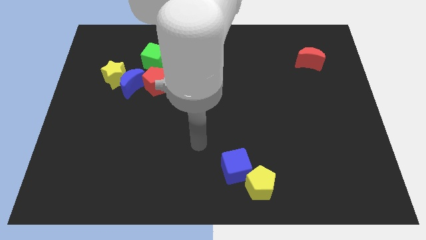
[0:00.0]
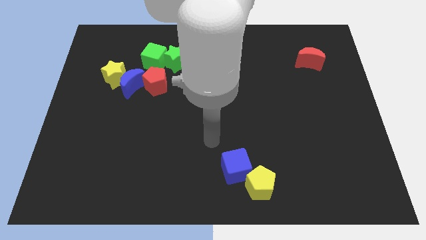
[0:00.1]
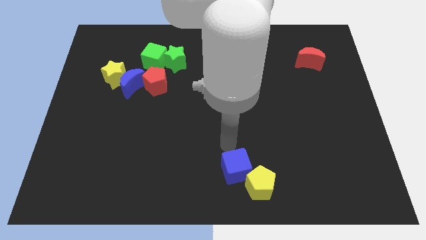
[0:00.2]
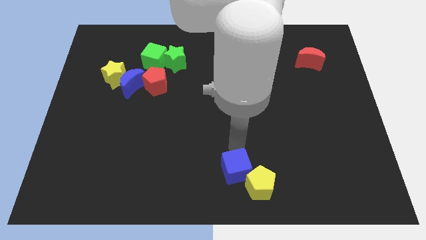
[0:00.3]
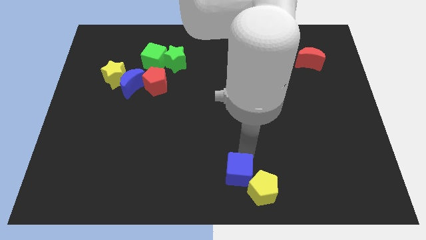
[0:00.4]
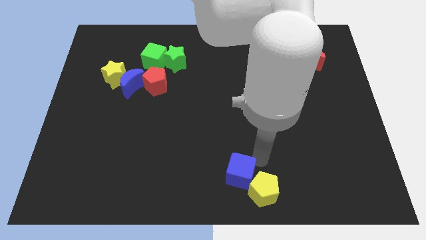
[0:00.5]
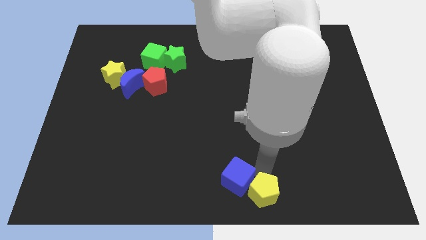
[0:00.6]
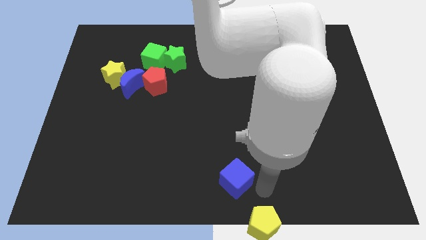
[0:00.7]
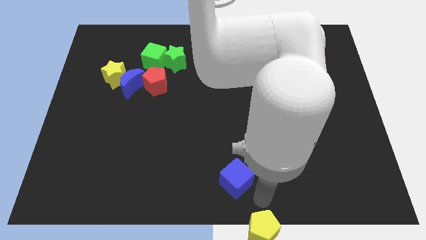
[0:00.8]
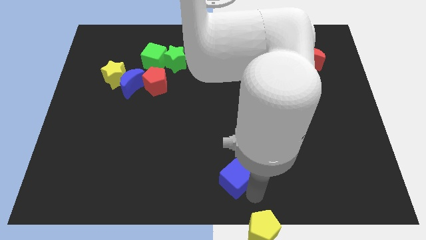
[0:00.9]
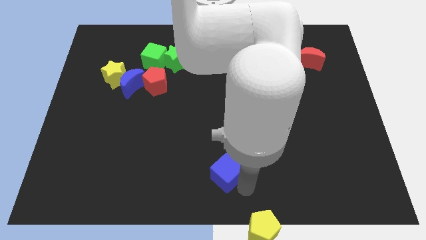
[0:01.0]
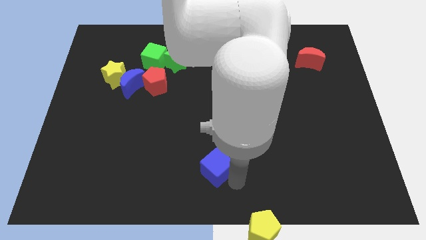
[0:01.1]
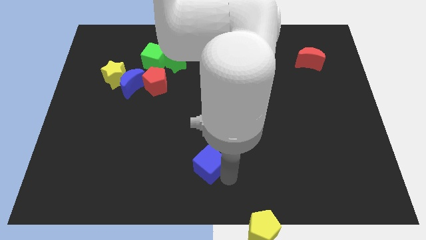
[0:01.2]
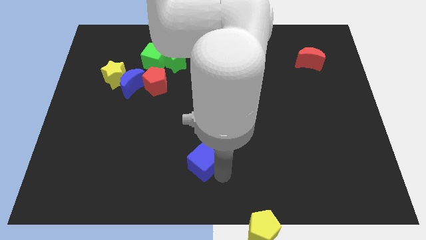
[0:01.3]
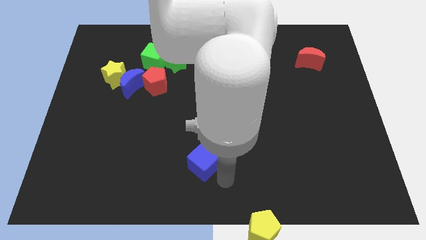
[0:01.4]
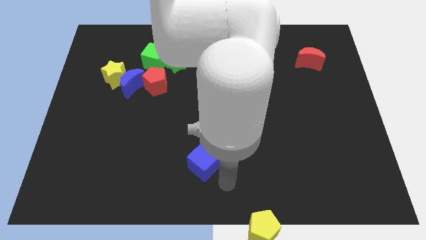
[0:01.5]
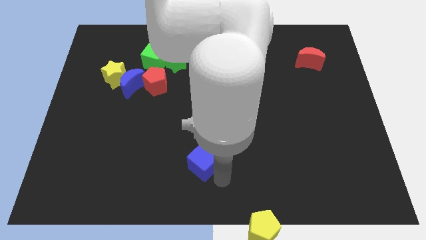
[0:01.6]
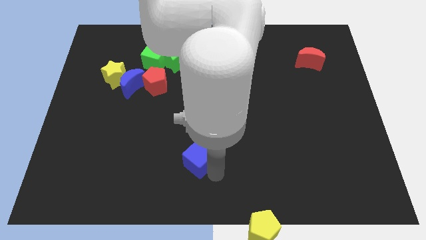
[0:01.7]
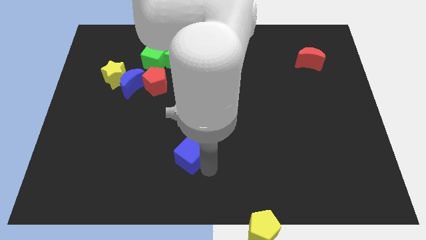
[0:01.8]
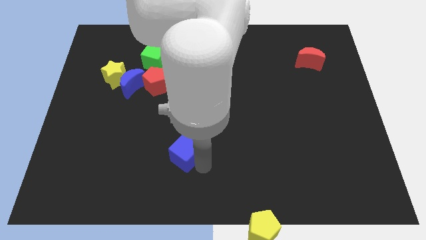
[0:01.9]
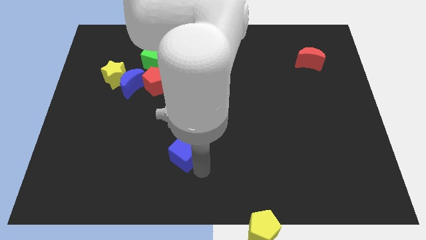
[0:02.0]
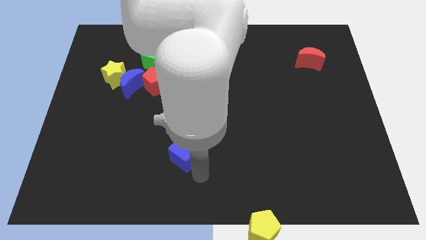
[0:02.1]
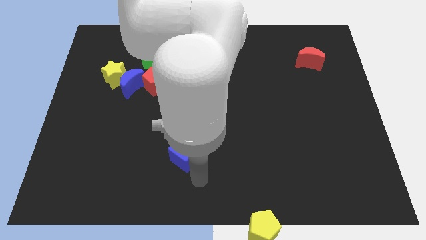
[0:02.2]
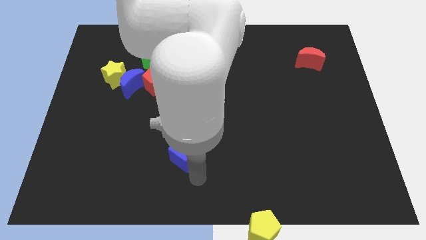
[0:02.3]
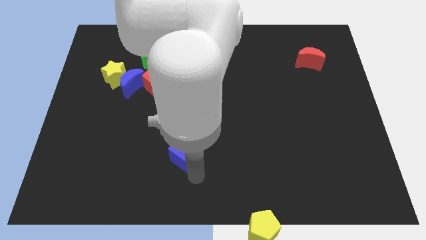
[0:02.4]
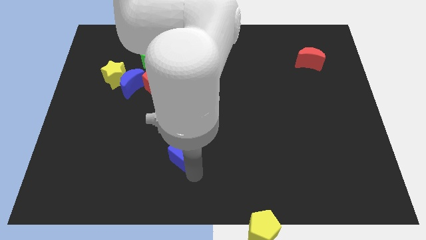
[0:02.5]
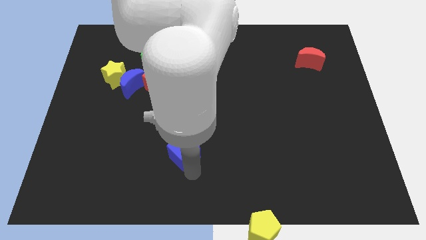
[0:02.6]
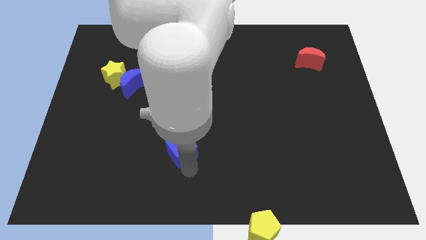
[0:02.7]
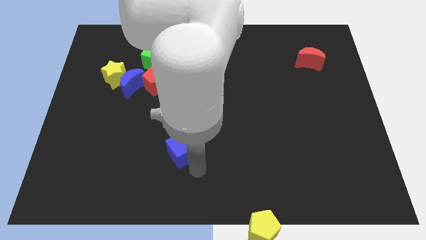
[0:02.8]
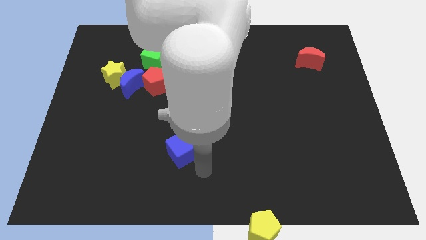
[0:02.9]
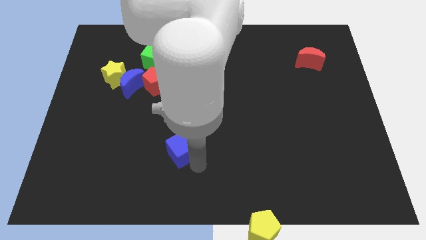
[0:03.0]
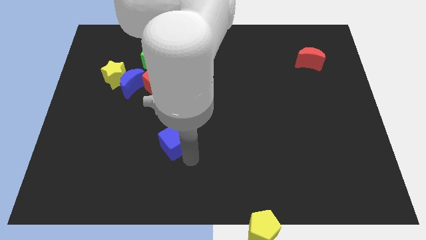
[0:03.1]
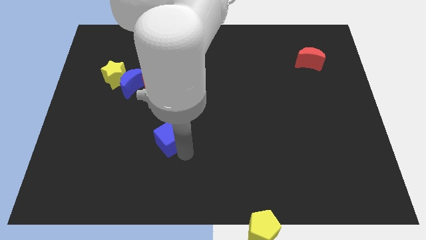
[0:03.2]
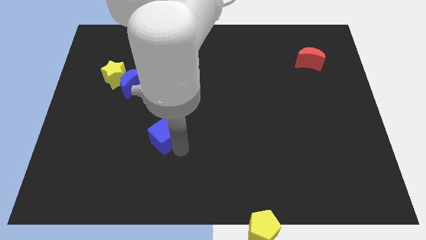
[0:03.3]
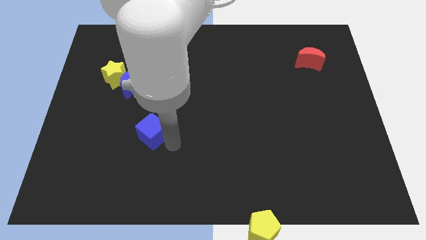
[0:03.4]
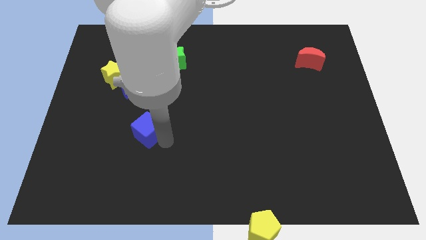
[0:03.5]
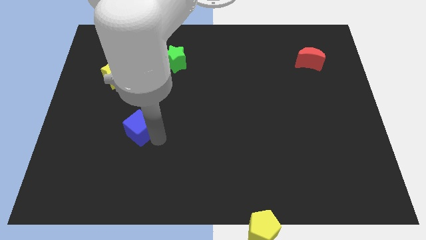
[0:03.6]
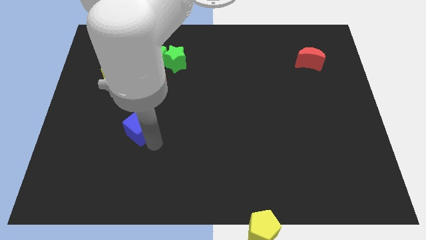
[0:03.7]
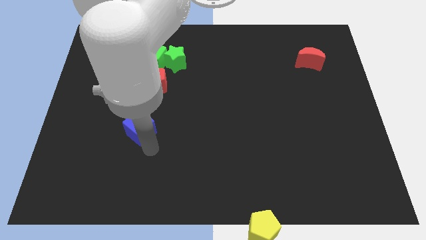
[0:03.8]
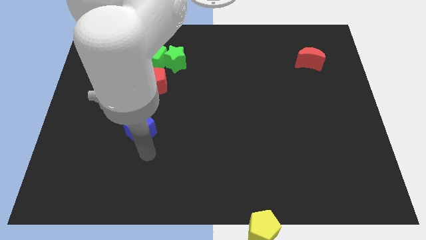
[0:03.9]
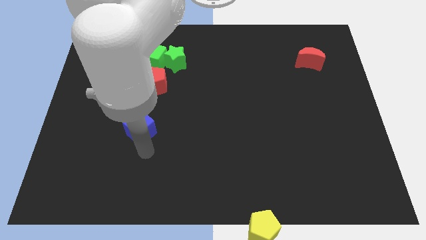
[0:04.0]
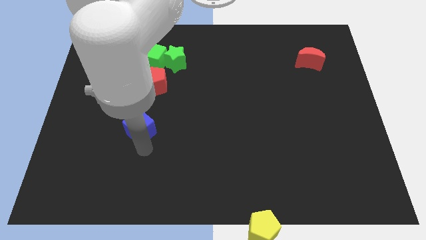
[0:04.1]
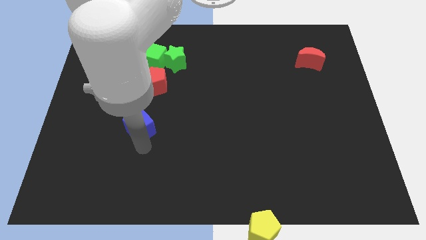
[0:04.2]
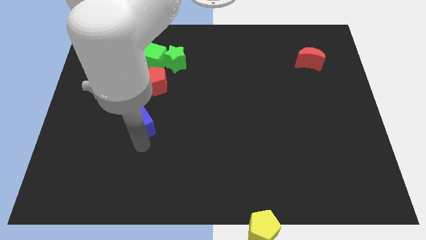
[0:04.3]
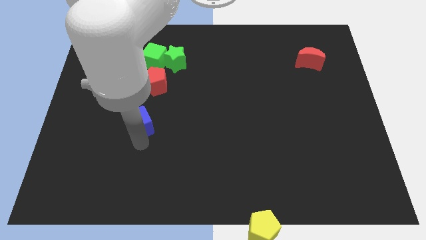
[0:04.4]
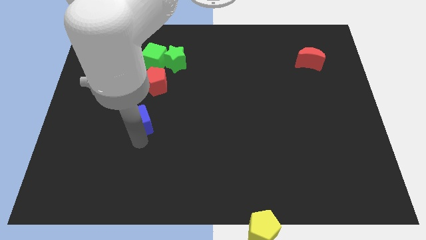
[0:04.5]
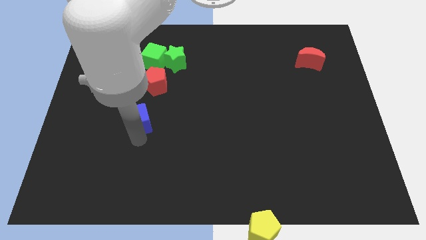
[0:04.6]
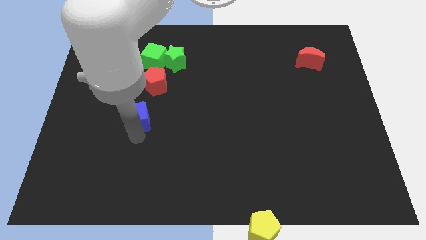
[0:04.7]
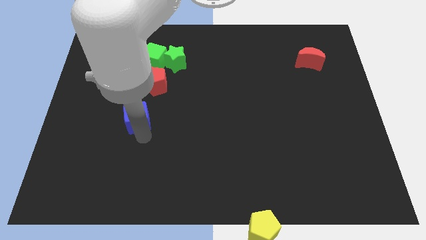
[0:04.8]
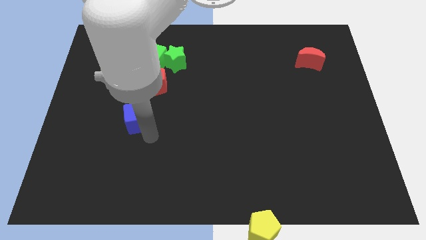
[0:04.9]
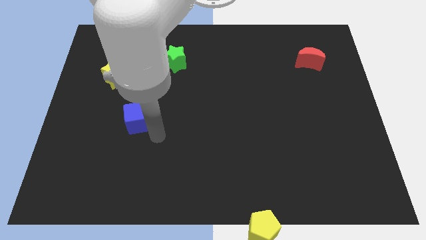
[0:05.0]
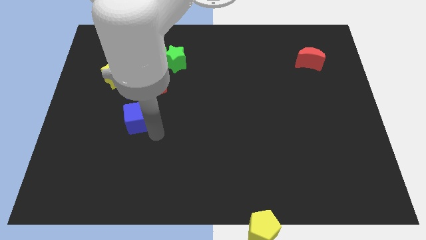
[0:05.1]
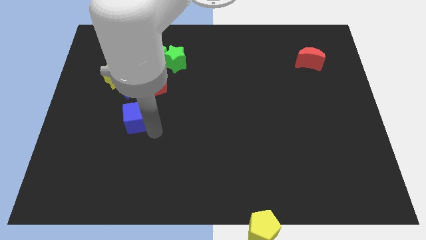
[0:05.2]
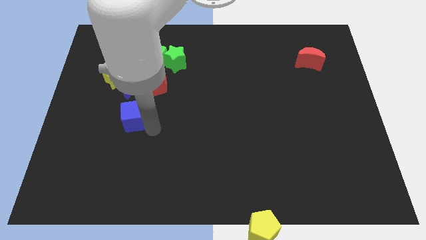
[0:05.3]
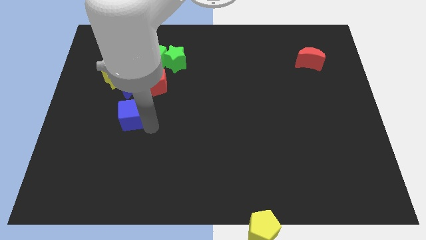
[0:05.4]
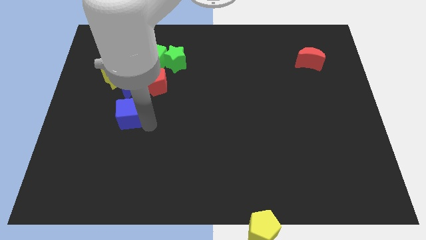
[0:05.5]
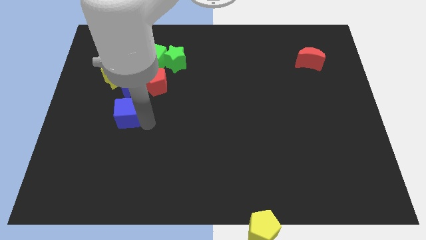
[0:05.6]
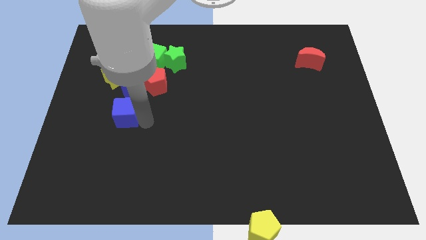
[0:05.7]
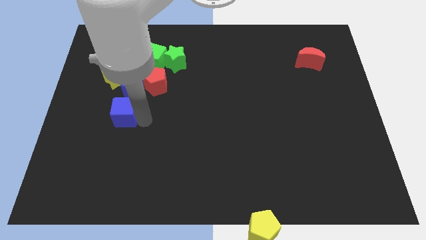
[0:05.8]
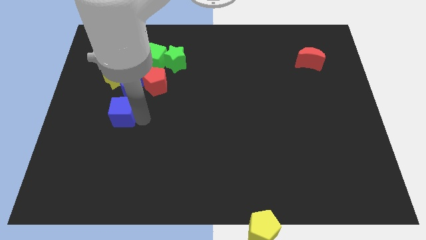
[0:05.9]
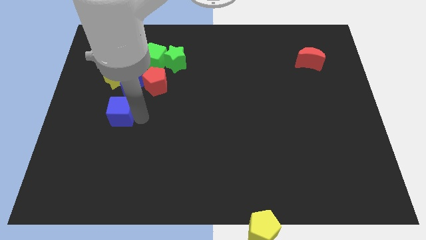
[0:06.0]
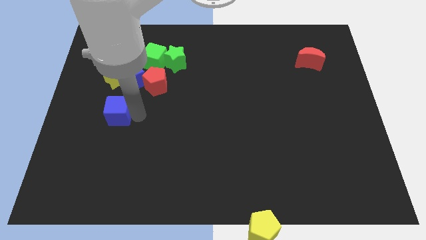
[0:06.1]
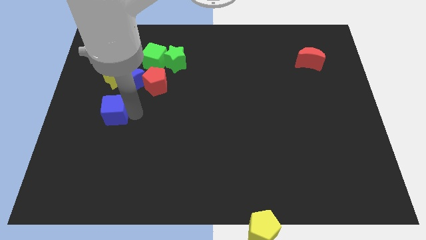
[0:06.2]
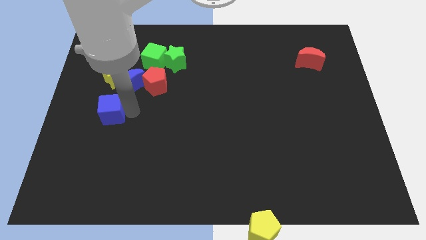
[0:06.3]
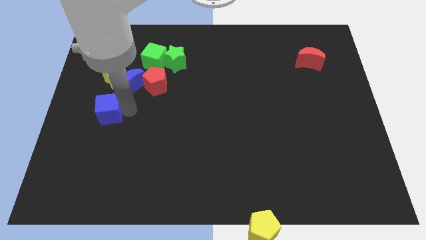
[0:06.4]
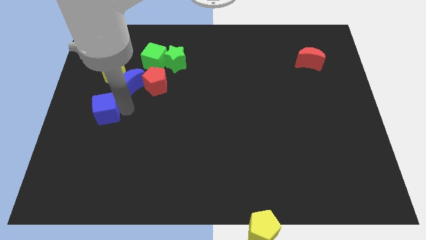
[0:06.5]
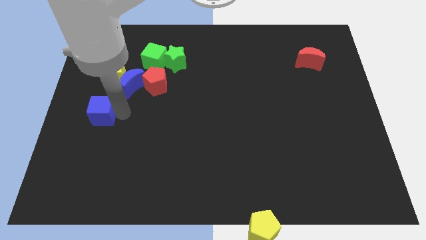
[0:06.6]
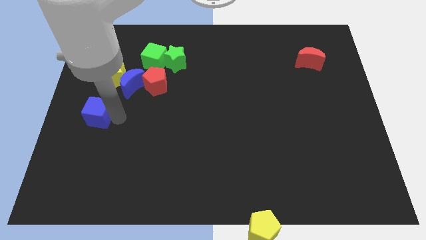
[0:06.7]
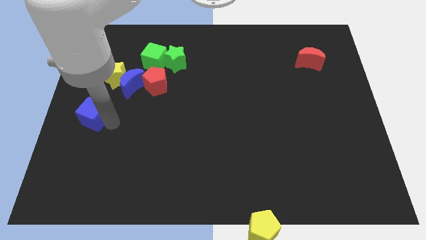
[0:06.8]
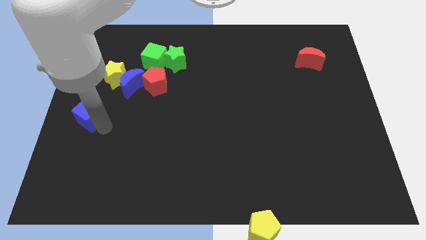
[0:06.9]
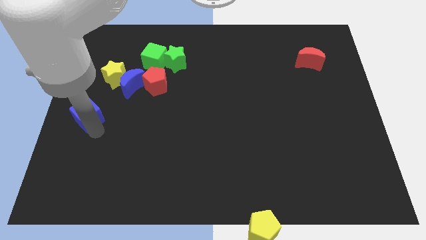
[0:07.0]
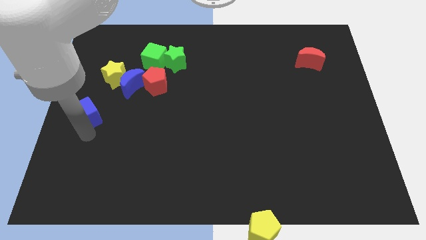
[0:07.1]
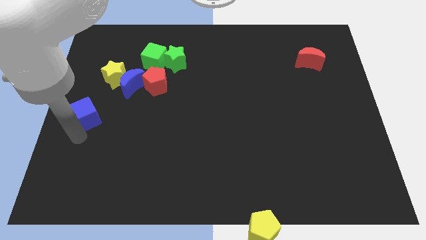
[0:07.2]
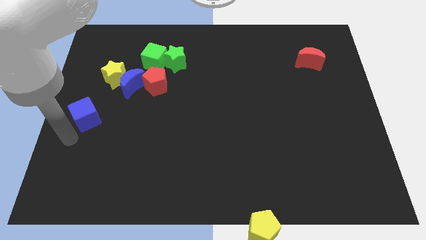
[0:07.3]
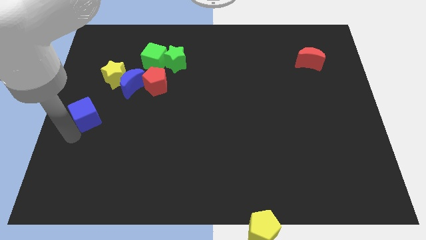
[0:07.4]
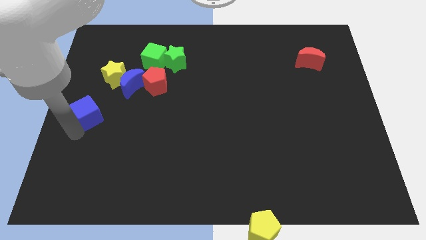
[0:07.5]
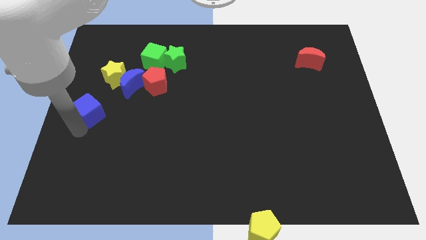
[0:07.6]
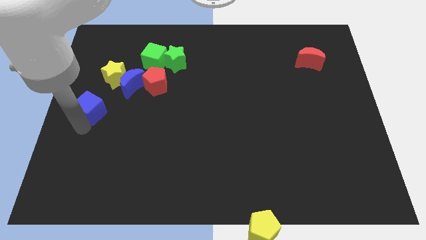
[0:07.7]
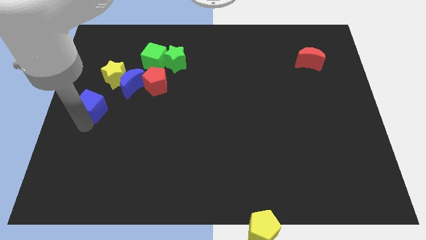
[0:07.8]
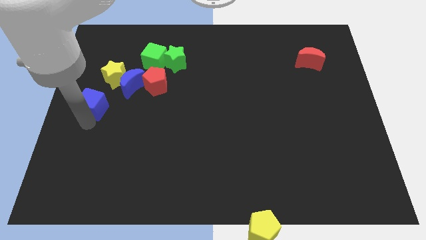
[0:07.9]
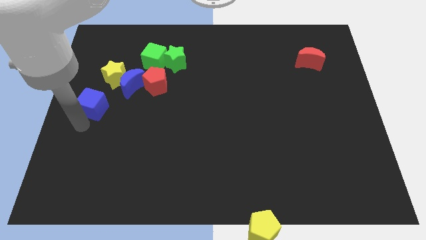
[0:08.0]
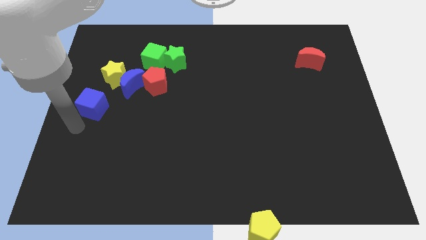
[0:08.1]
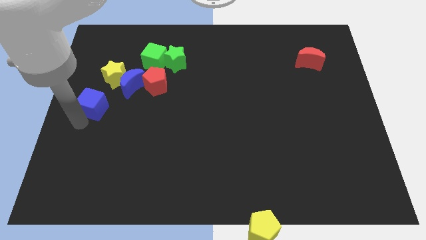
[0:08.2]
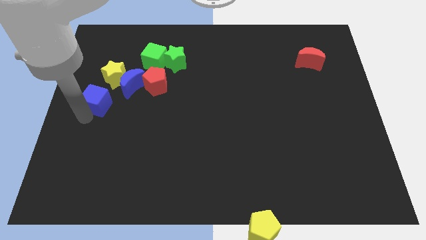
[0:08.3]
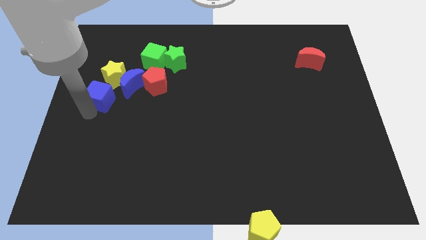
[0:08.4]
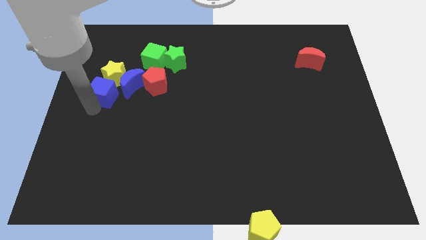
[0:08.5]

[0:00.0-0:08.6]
move the blue cube towards the yellow star
